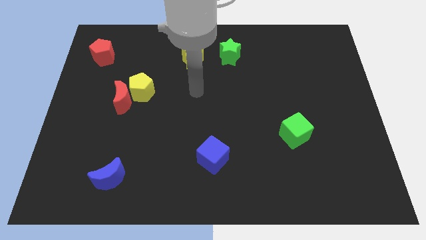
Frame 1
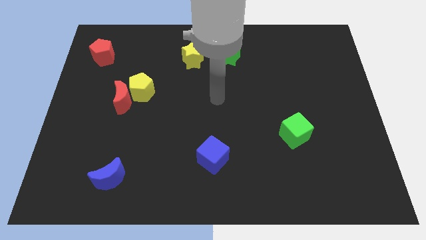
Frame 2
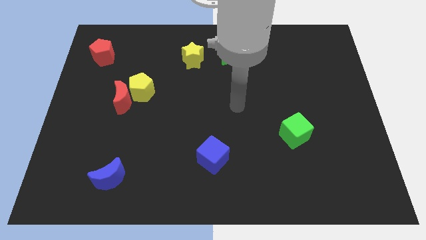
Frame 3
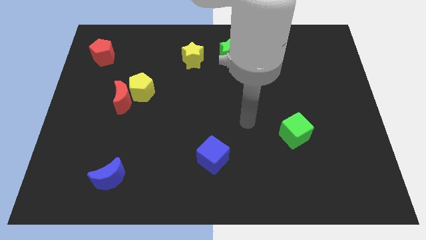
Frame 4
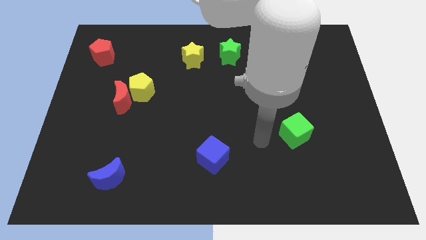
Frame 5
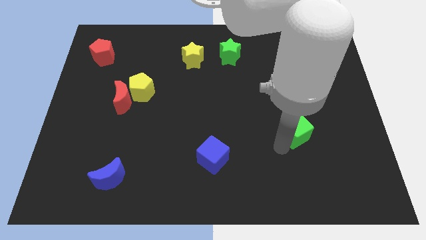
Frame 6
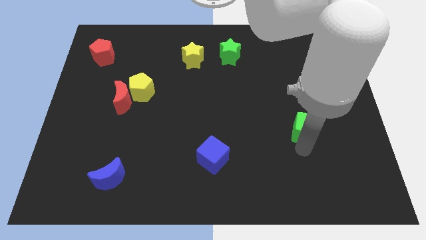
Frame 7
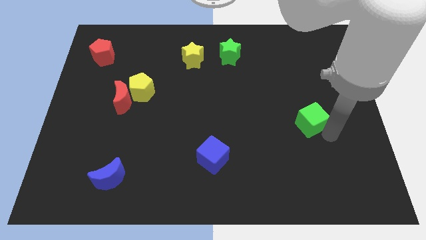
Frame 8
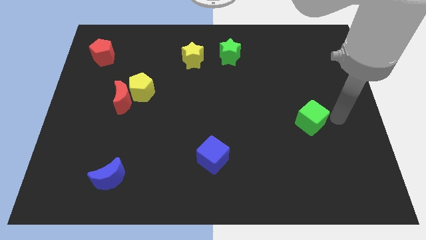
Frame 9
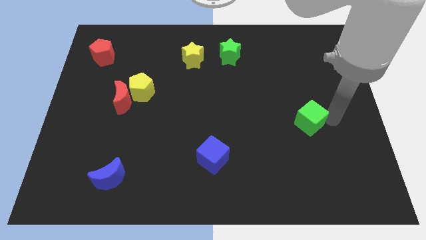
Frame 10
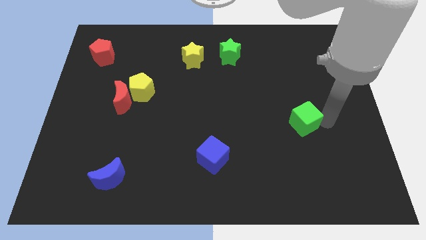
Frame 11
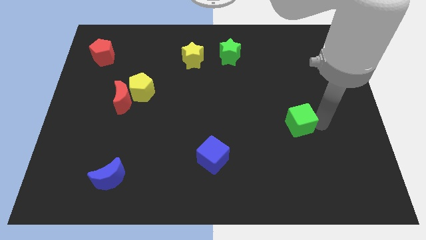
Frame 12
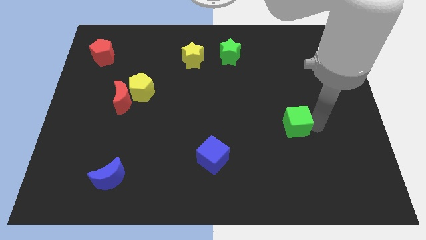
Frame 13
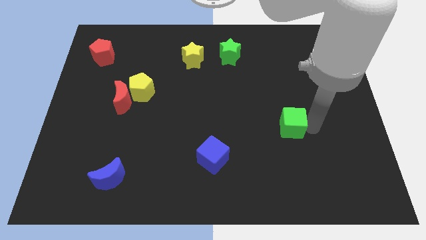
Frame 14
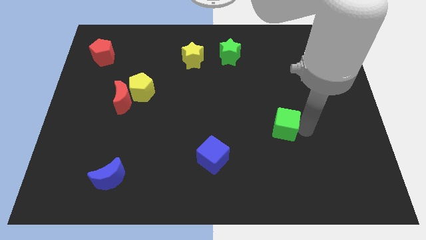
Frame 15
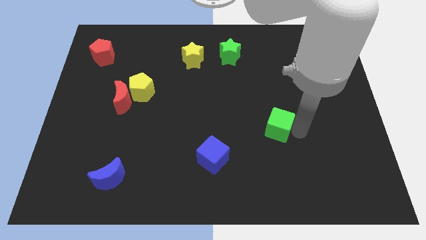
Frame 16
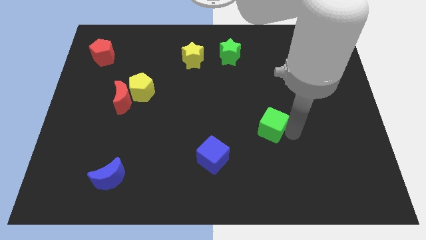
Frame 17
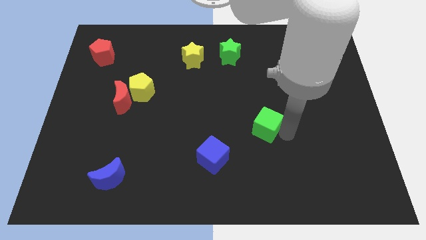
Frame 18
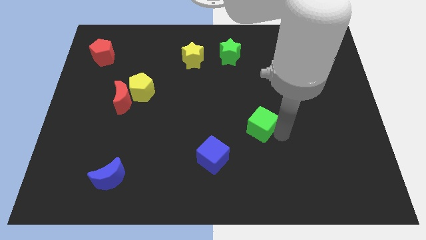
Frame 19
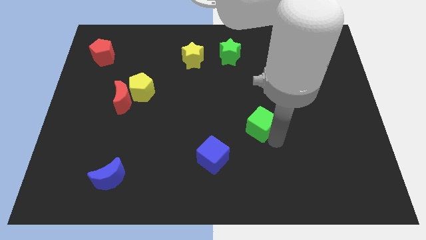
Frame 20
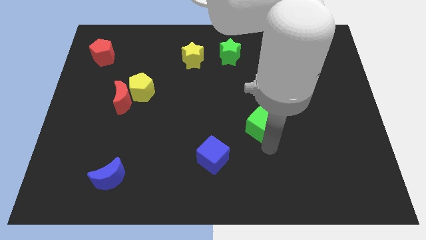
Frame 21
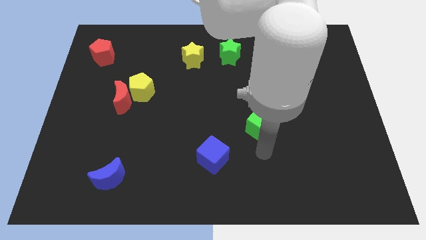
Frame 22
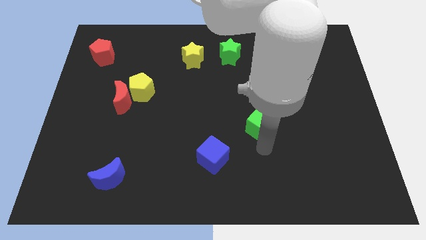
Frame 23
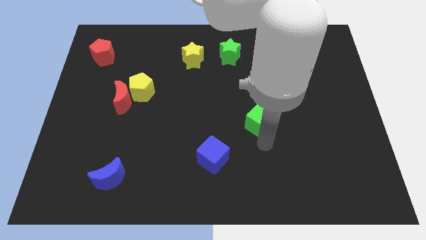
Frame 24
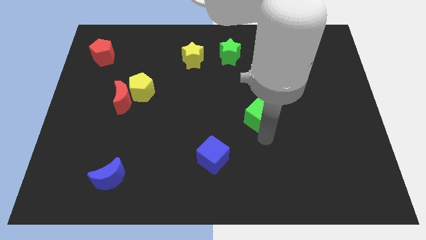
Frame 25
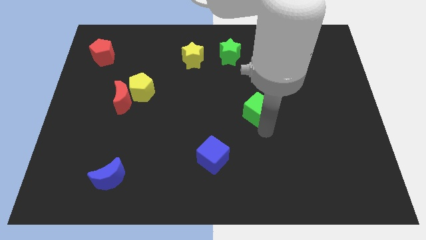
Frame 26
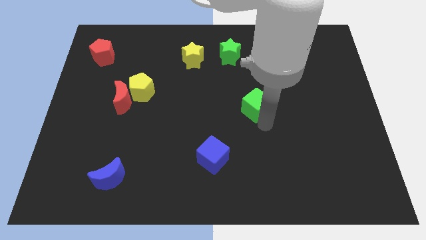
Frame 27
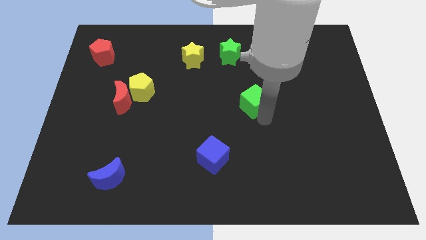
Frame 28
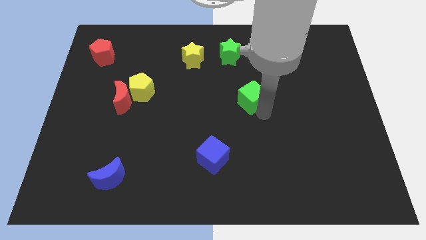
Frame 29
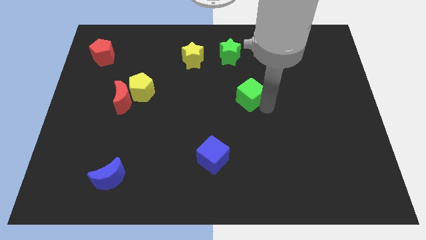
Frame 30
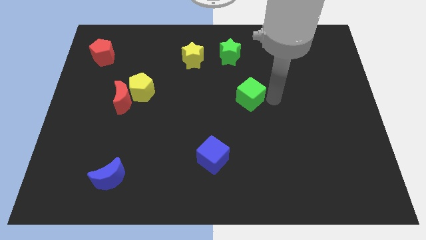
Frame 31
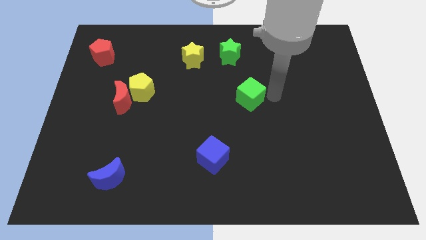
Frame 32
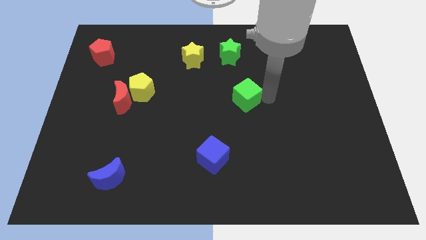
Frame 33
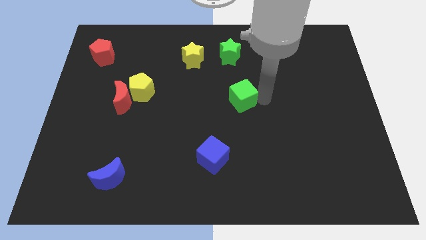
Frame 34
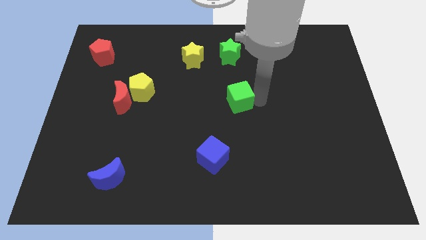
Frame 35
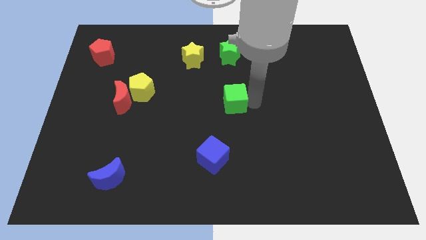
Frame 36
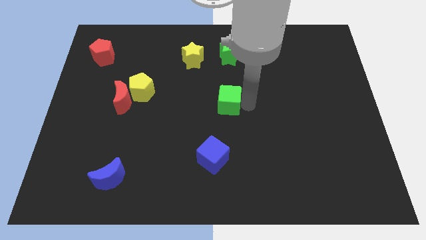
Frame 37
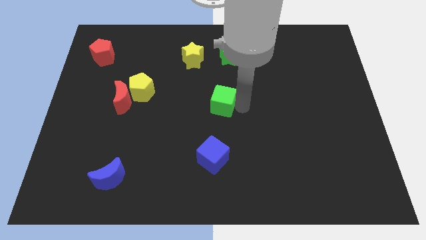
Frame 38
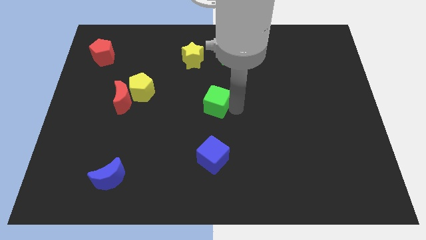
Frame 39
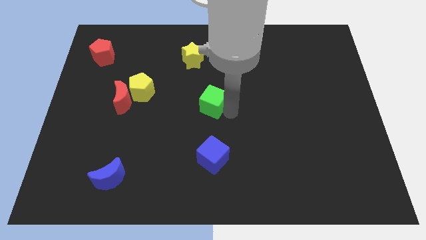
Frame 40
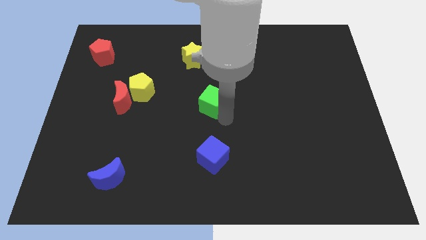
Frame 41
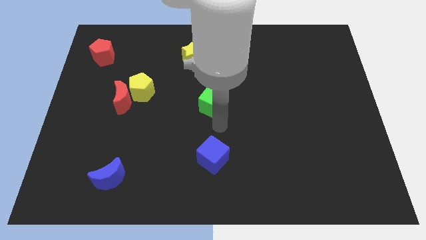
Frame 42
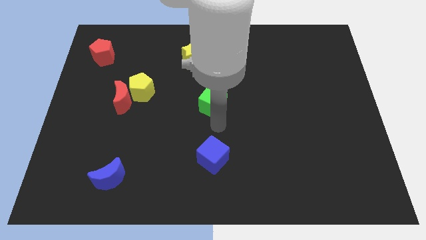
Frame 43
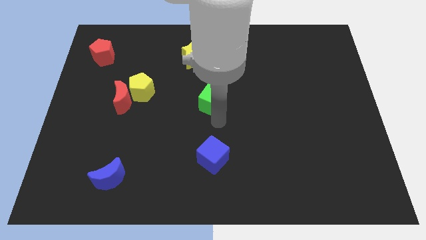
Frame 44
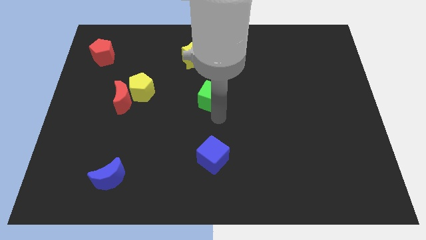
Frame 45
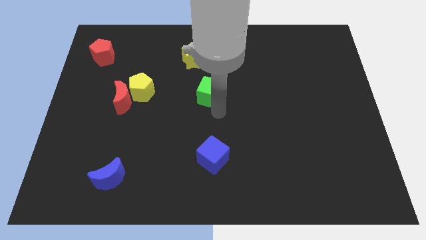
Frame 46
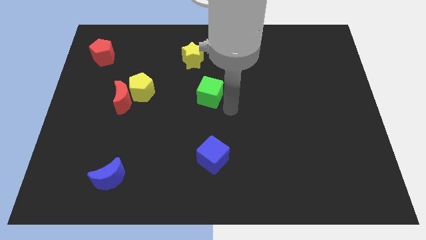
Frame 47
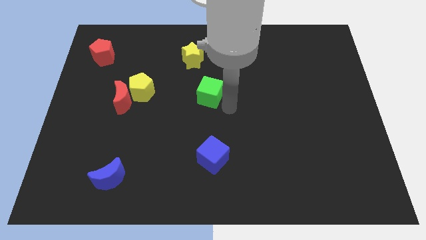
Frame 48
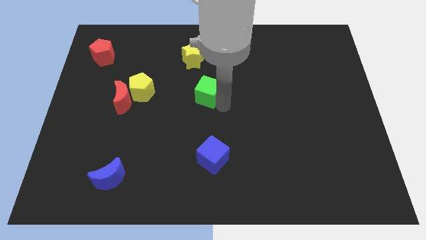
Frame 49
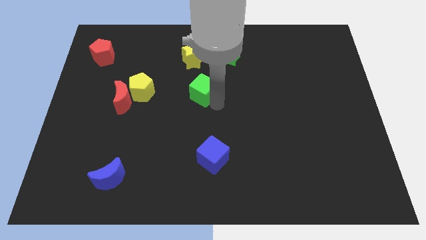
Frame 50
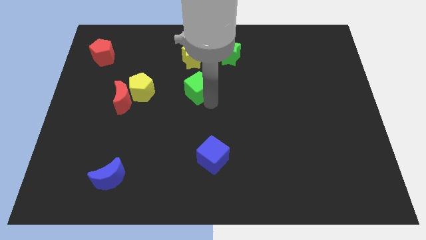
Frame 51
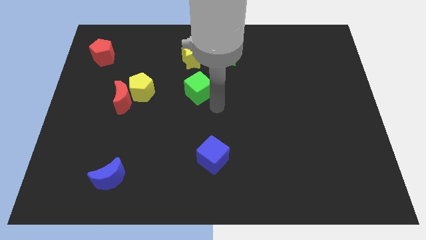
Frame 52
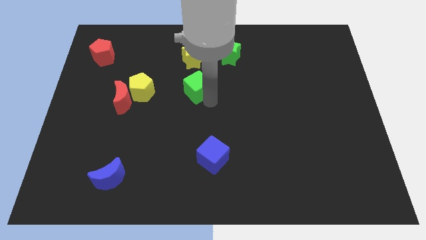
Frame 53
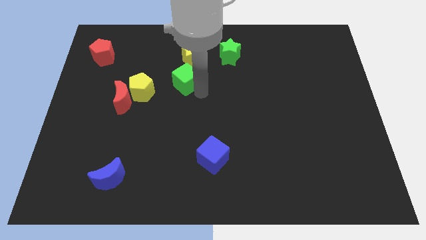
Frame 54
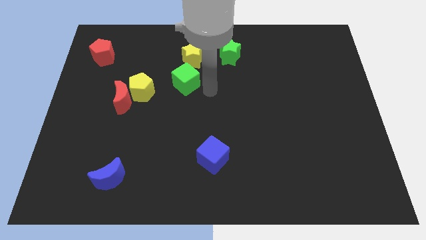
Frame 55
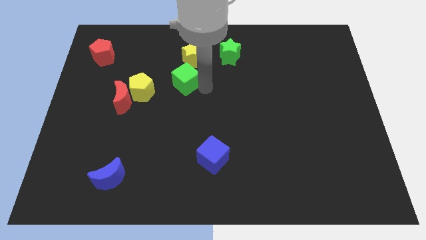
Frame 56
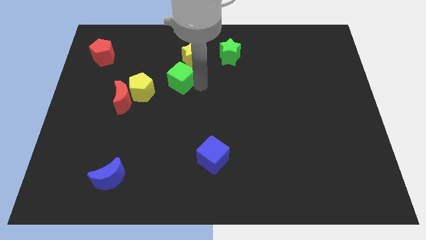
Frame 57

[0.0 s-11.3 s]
put the green cube to the top right of the yellow pentagon

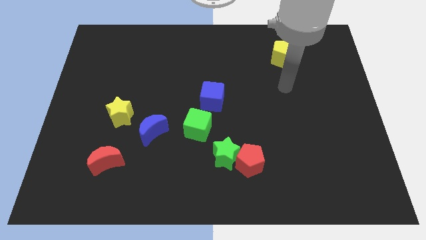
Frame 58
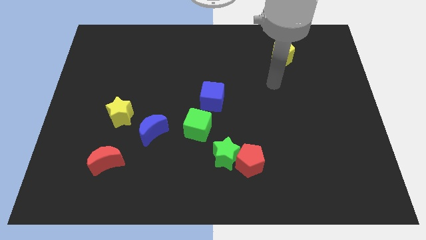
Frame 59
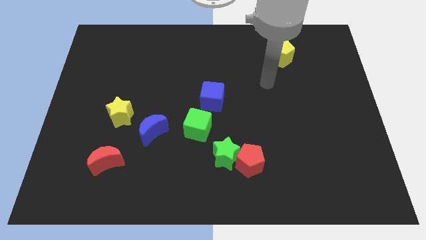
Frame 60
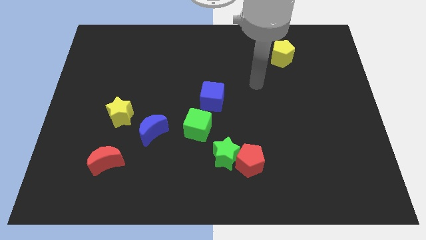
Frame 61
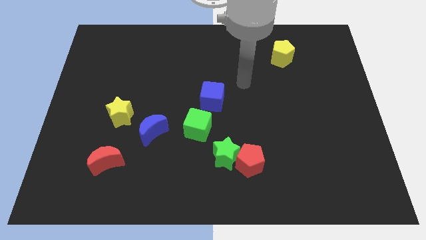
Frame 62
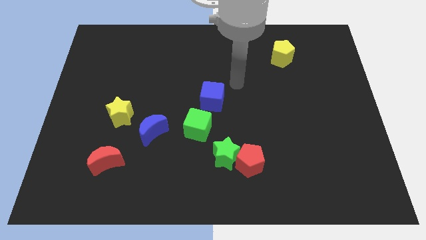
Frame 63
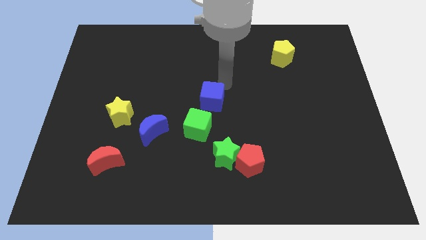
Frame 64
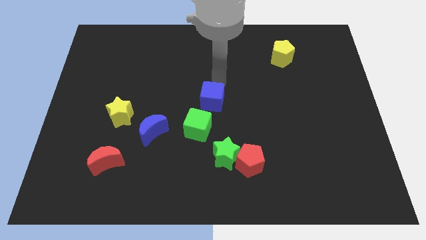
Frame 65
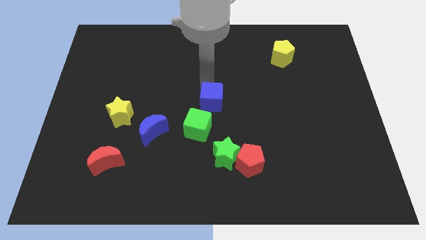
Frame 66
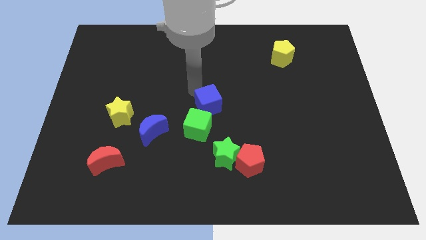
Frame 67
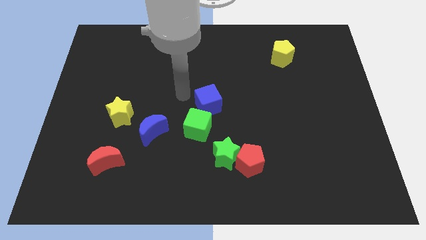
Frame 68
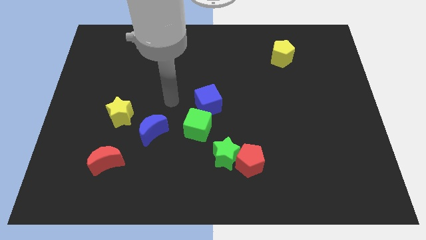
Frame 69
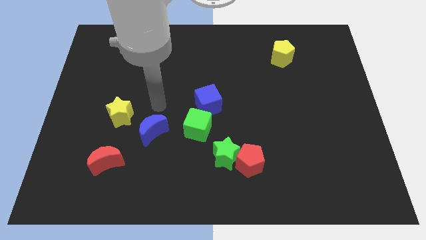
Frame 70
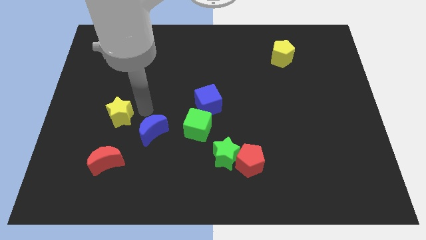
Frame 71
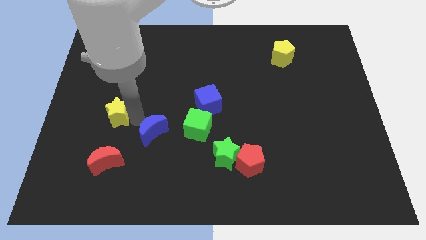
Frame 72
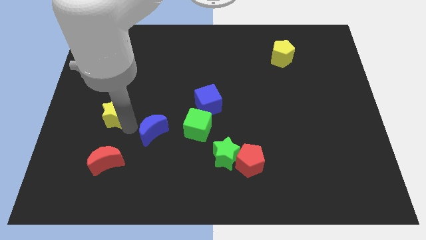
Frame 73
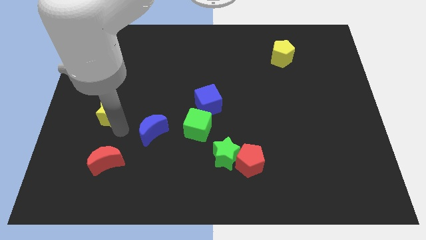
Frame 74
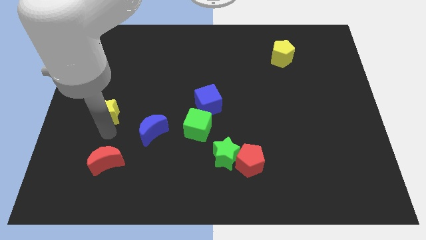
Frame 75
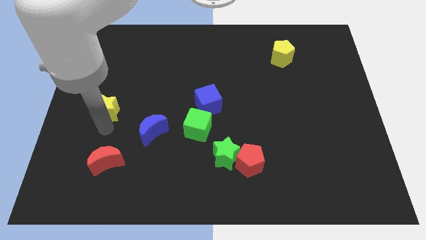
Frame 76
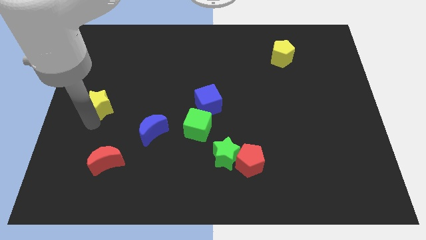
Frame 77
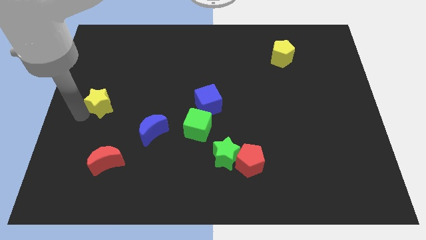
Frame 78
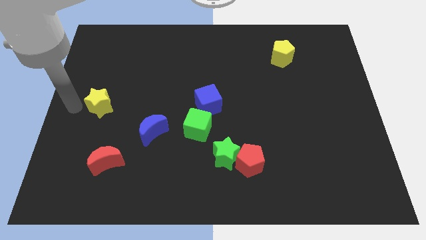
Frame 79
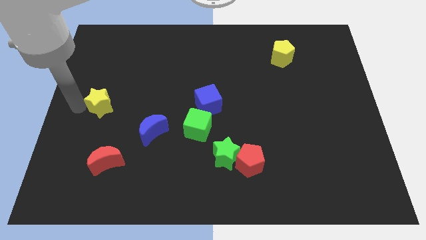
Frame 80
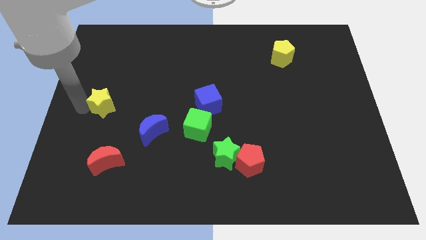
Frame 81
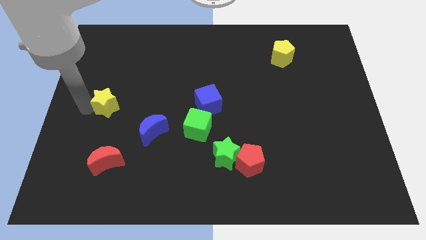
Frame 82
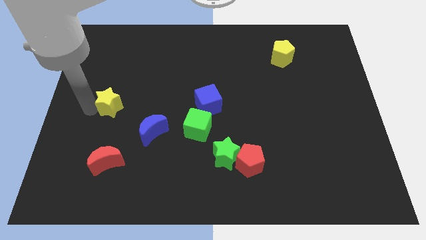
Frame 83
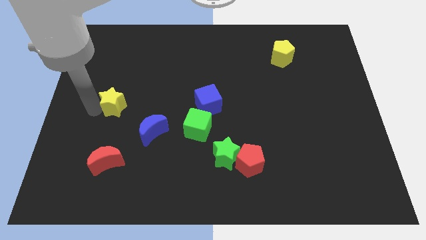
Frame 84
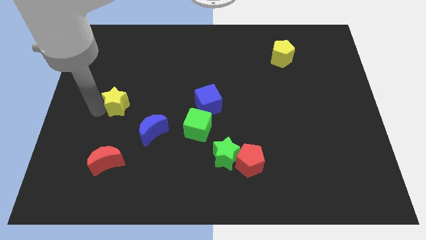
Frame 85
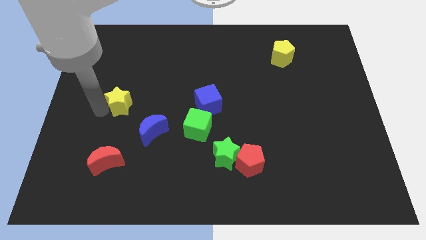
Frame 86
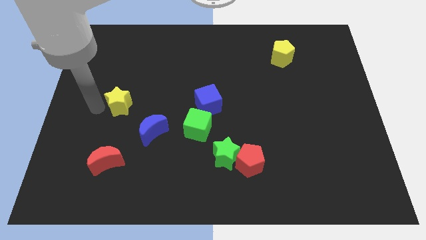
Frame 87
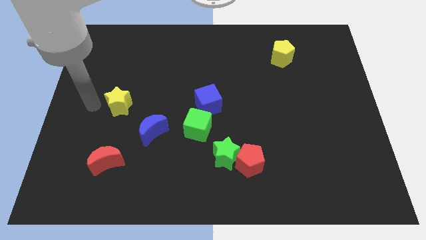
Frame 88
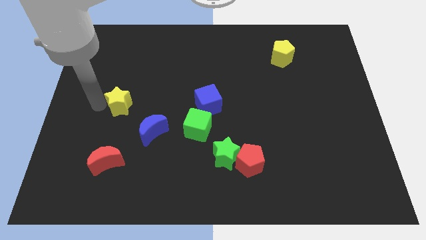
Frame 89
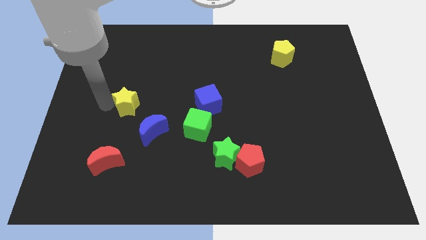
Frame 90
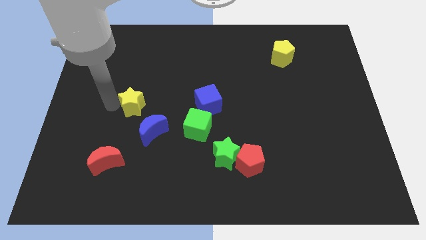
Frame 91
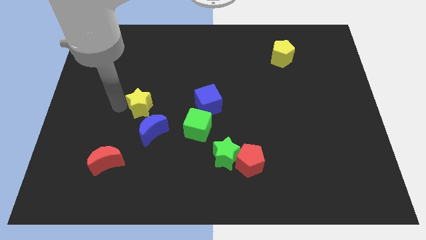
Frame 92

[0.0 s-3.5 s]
slide the yellow star to the top of the blue moon
